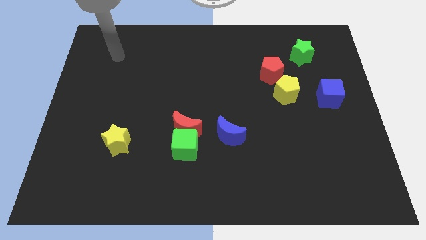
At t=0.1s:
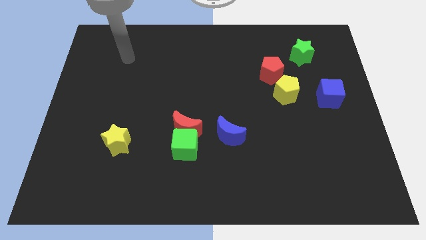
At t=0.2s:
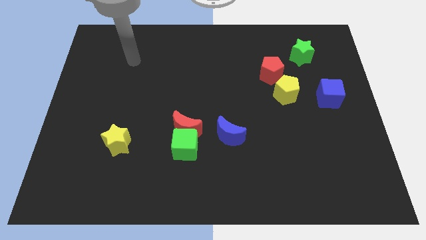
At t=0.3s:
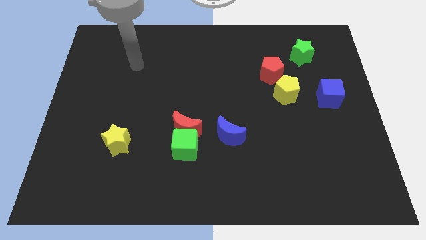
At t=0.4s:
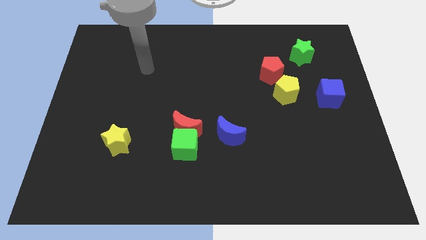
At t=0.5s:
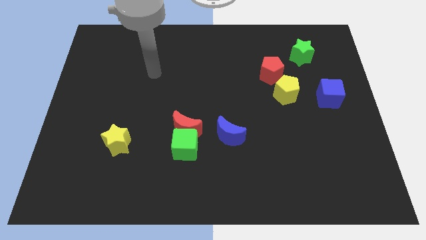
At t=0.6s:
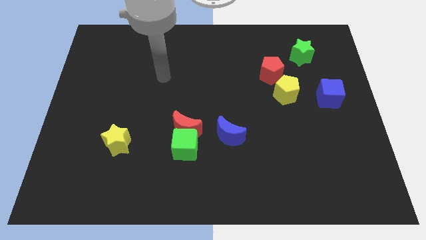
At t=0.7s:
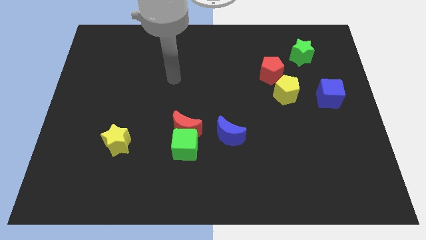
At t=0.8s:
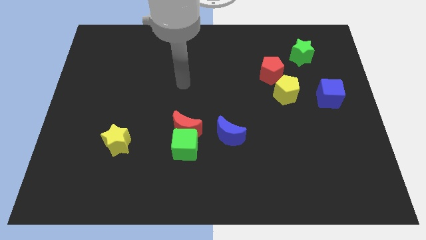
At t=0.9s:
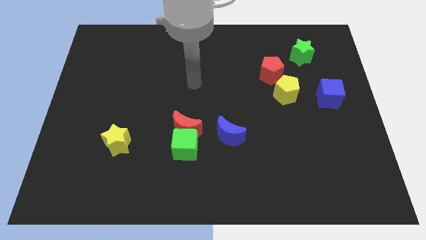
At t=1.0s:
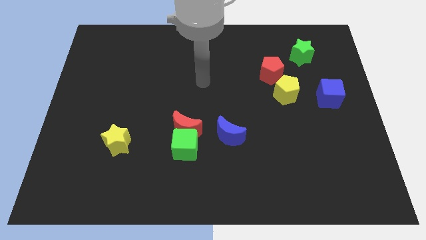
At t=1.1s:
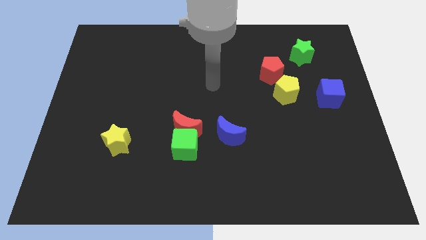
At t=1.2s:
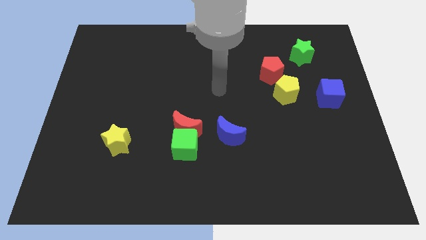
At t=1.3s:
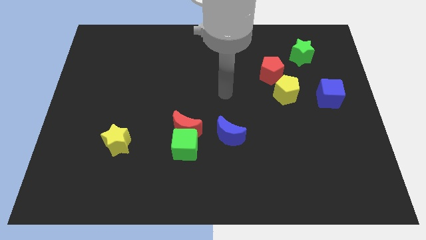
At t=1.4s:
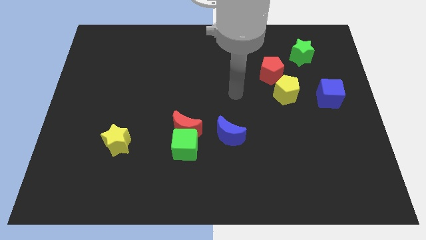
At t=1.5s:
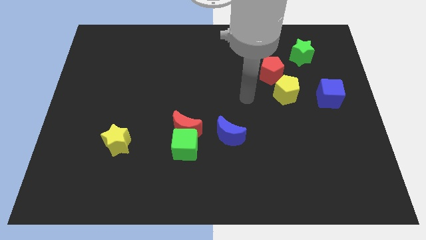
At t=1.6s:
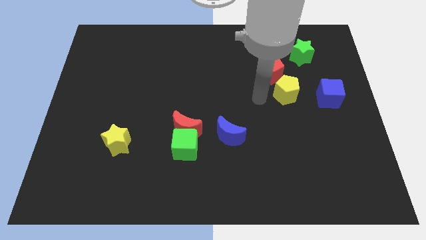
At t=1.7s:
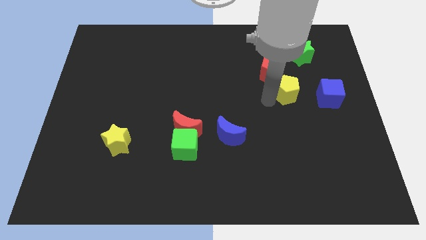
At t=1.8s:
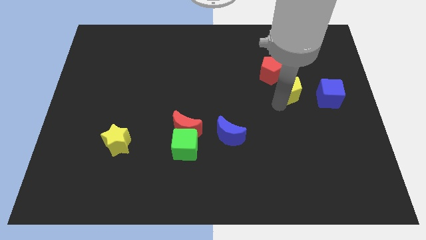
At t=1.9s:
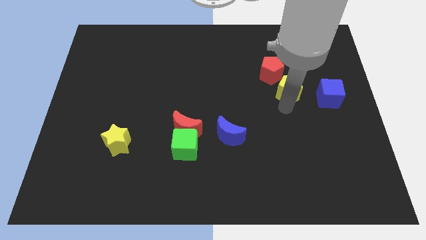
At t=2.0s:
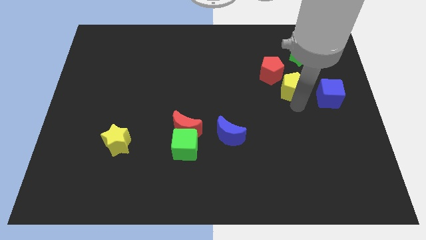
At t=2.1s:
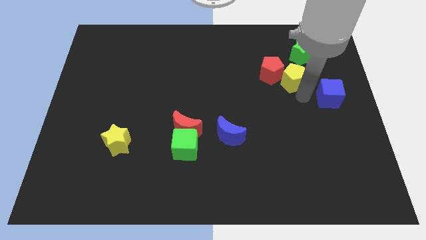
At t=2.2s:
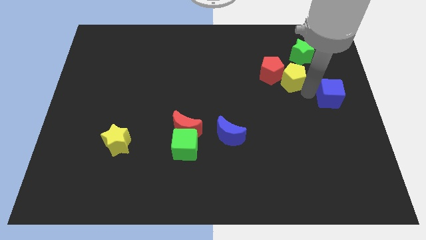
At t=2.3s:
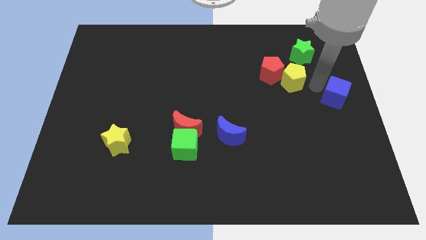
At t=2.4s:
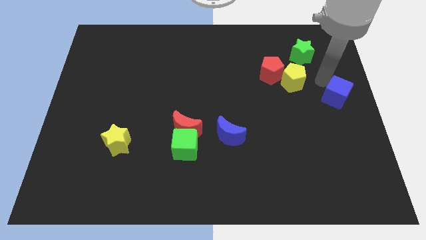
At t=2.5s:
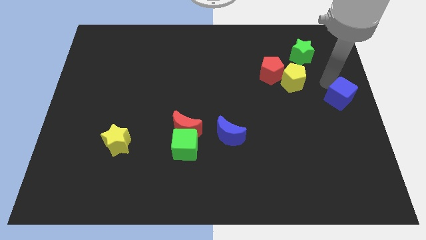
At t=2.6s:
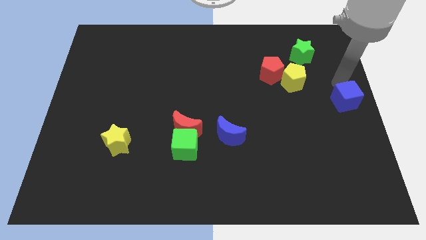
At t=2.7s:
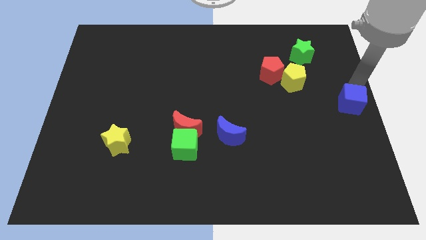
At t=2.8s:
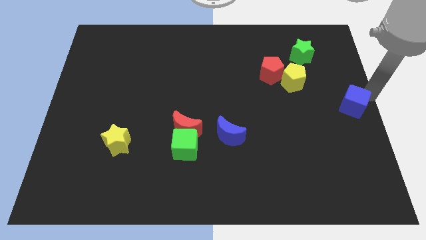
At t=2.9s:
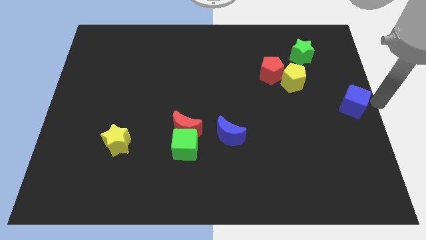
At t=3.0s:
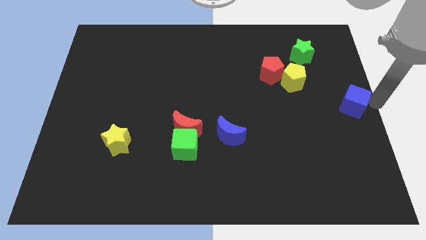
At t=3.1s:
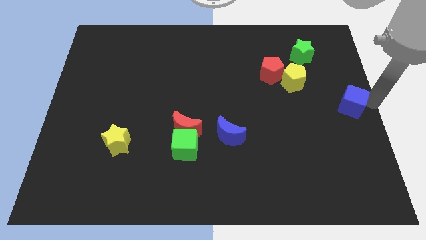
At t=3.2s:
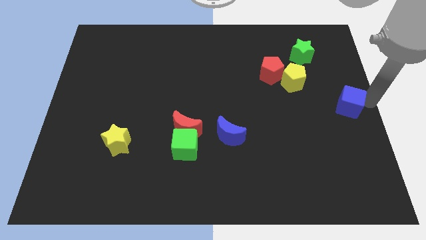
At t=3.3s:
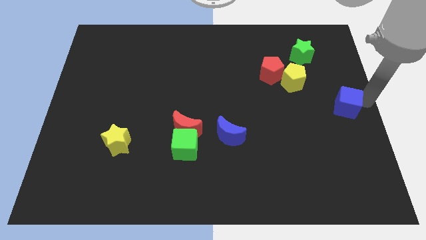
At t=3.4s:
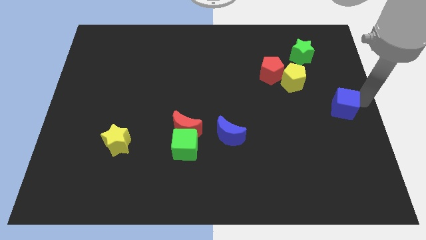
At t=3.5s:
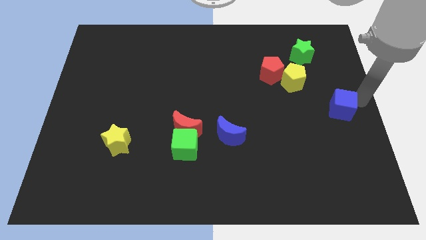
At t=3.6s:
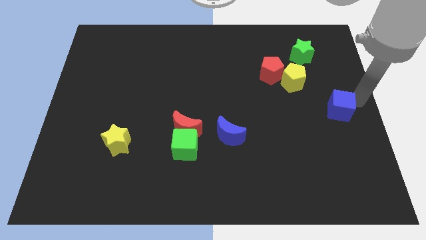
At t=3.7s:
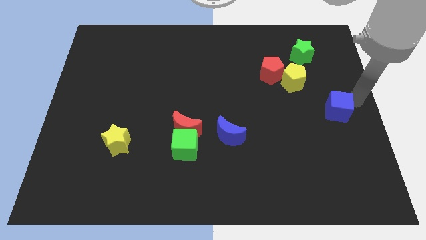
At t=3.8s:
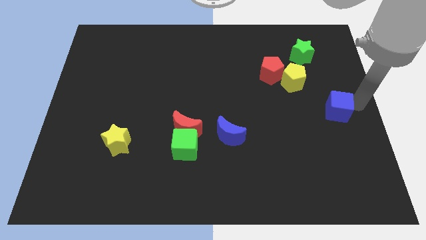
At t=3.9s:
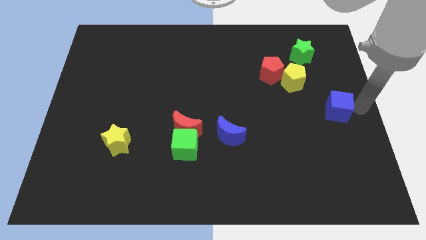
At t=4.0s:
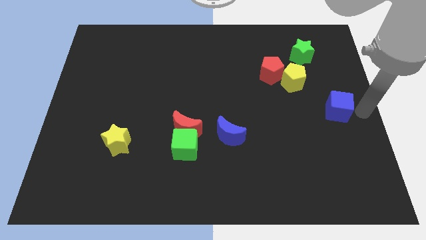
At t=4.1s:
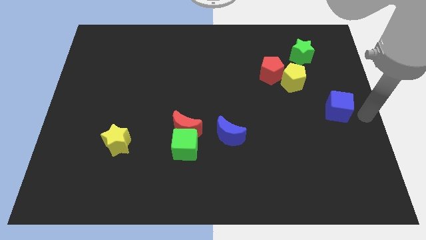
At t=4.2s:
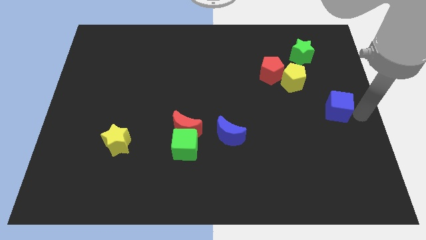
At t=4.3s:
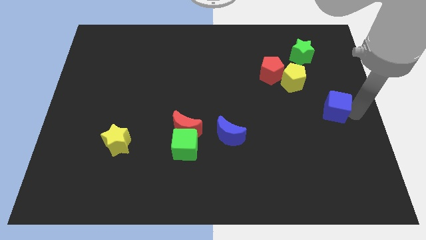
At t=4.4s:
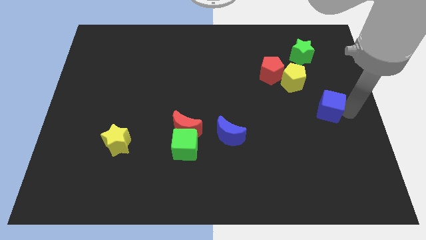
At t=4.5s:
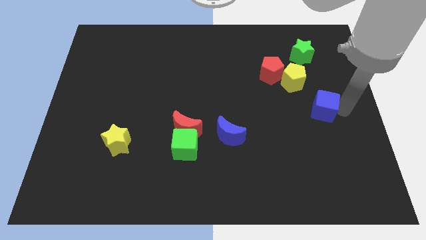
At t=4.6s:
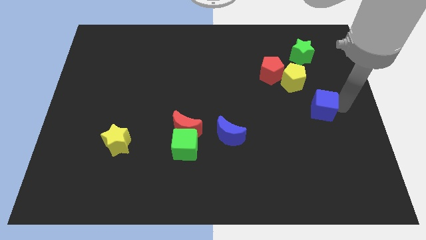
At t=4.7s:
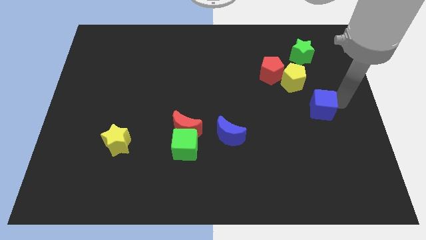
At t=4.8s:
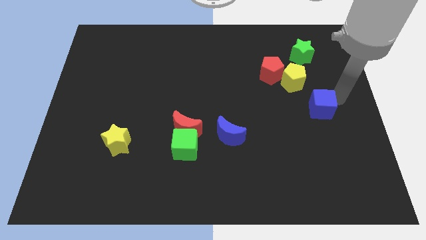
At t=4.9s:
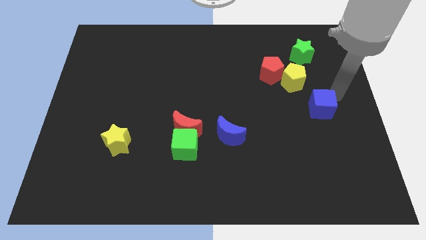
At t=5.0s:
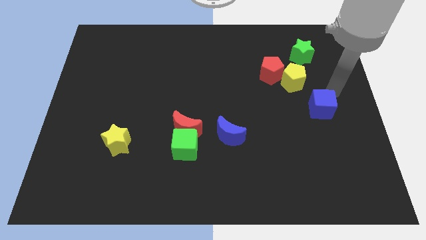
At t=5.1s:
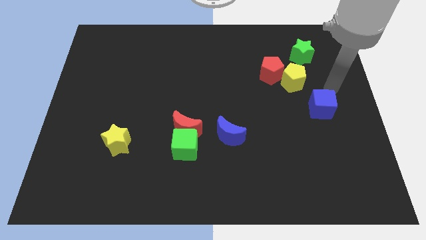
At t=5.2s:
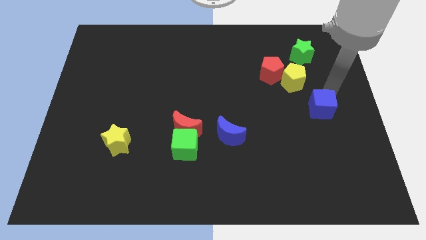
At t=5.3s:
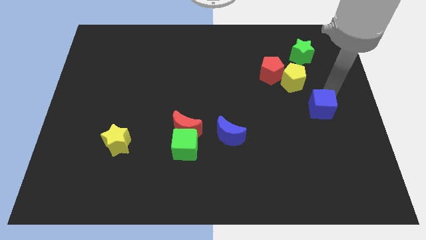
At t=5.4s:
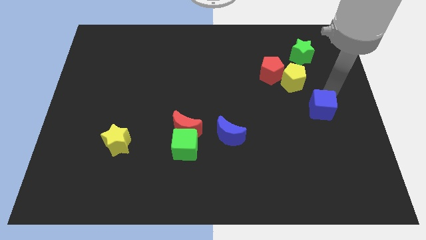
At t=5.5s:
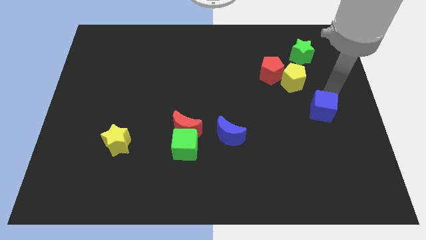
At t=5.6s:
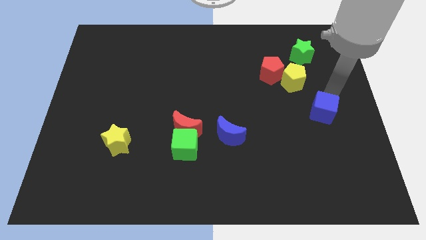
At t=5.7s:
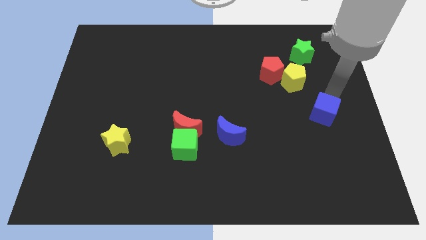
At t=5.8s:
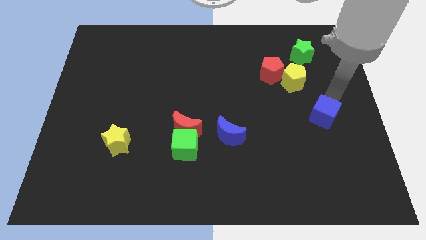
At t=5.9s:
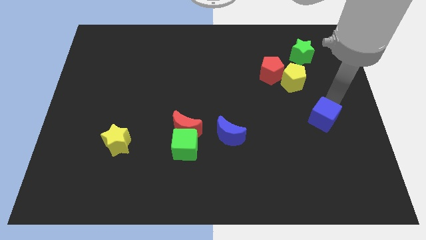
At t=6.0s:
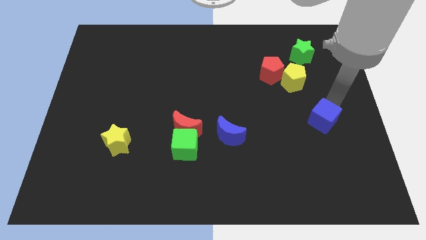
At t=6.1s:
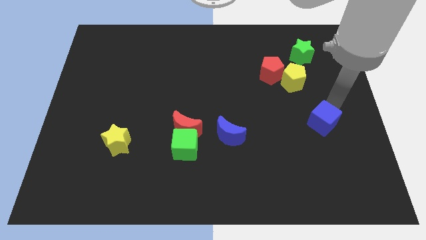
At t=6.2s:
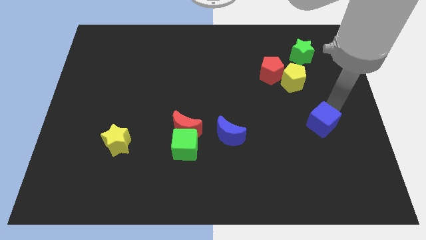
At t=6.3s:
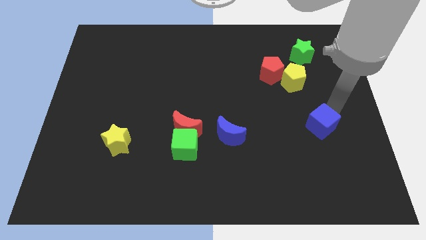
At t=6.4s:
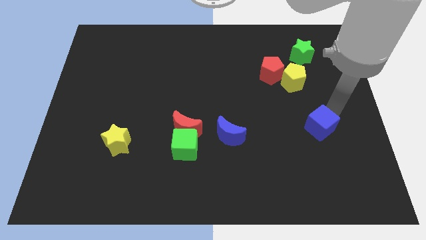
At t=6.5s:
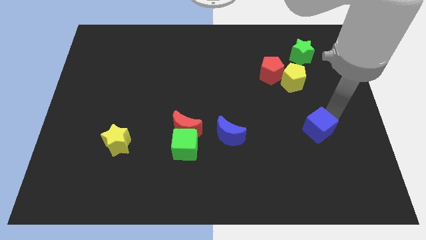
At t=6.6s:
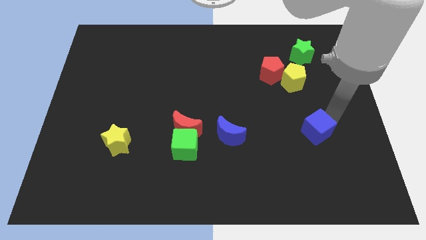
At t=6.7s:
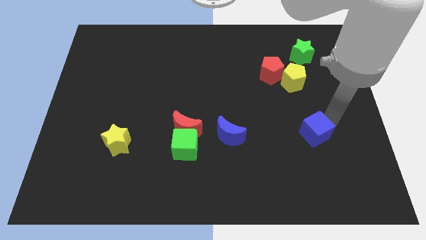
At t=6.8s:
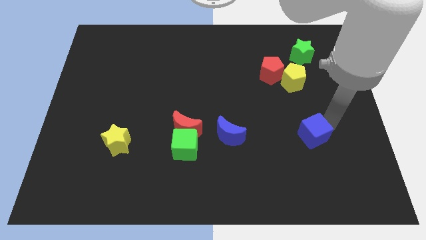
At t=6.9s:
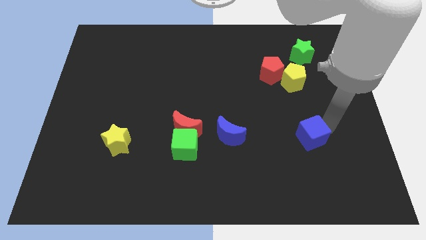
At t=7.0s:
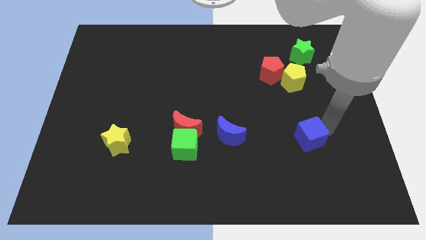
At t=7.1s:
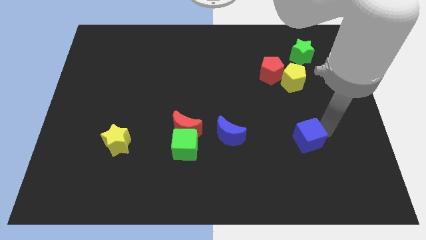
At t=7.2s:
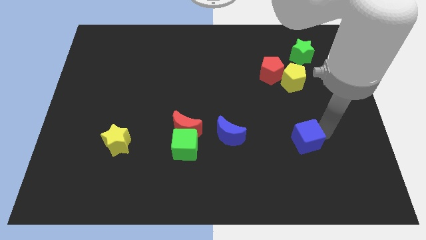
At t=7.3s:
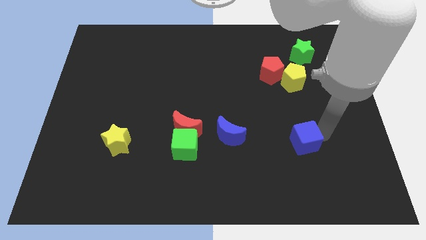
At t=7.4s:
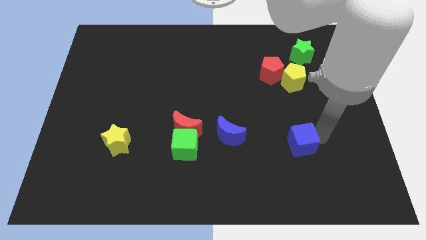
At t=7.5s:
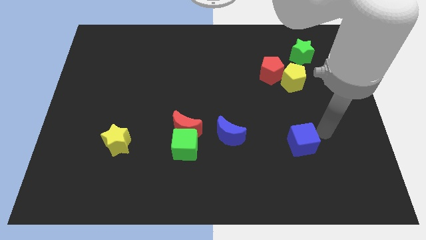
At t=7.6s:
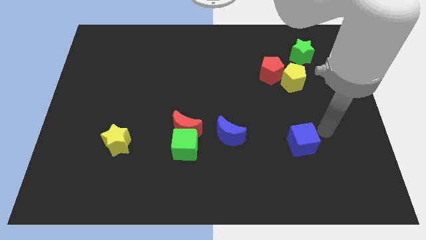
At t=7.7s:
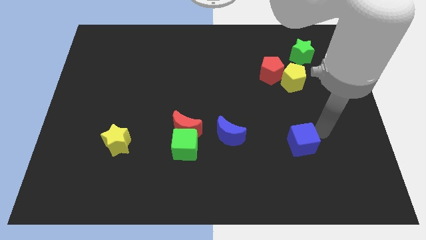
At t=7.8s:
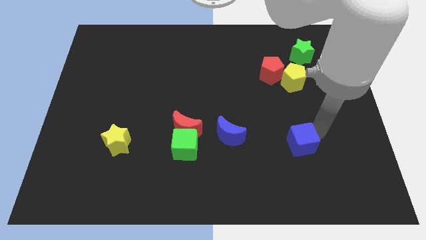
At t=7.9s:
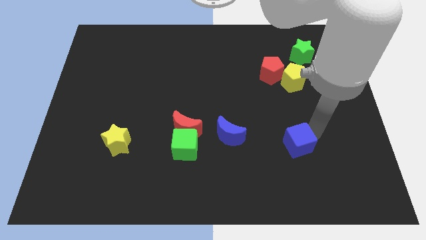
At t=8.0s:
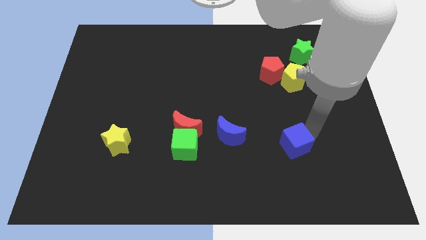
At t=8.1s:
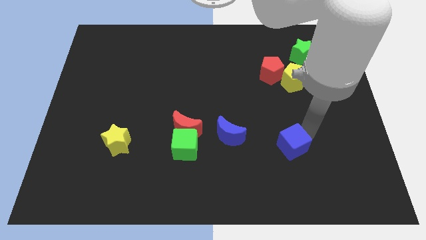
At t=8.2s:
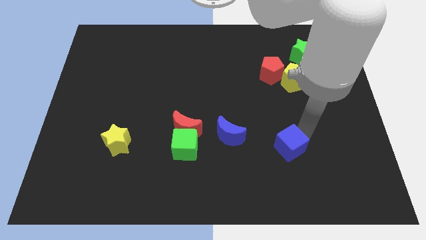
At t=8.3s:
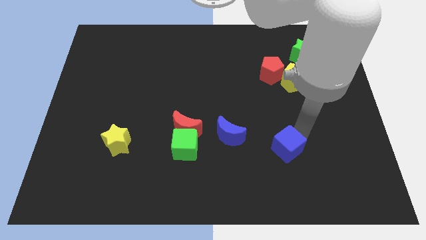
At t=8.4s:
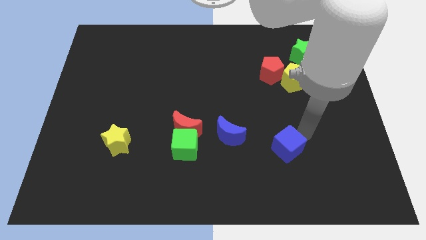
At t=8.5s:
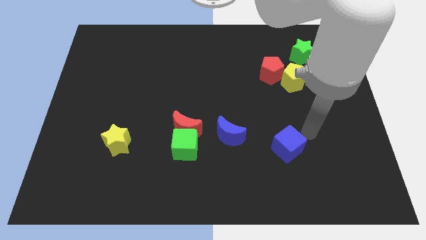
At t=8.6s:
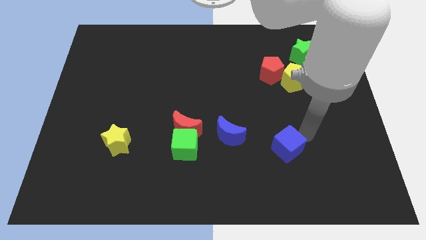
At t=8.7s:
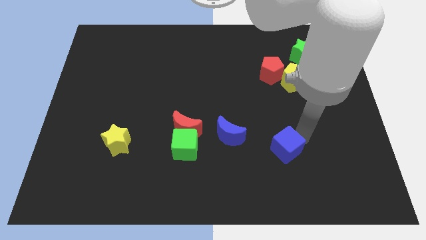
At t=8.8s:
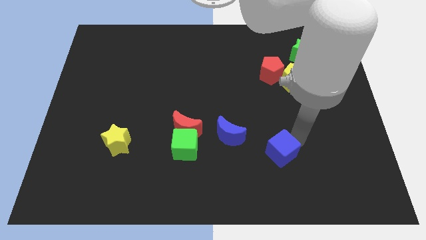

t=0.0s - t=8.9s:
move the blue cube downwards and then left
